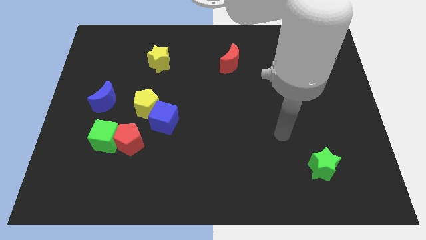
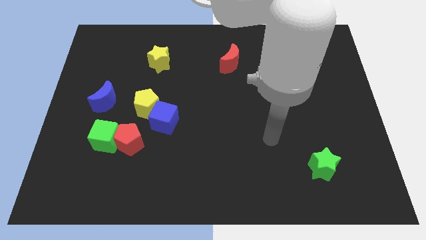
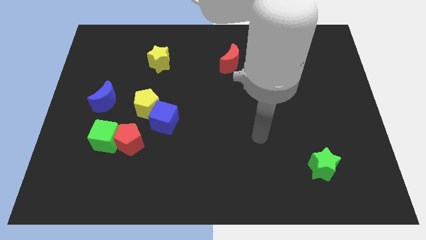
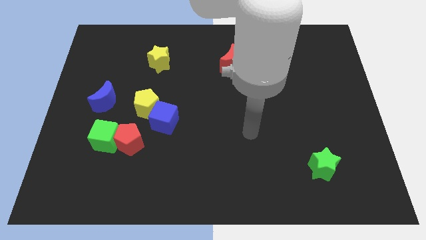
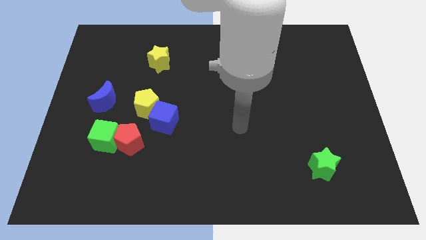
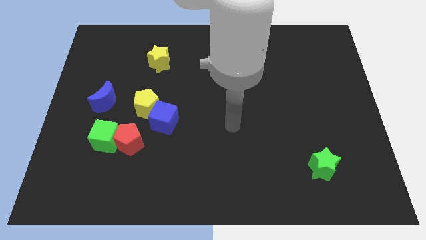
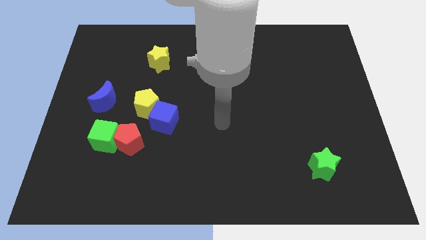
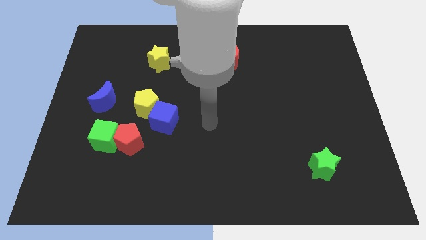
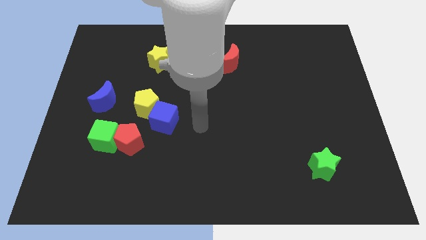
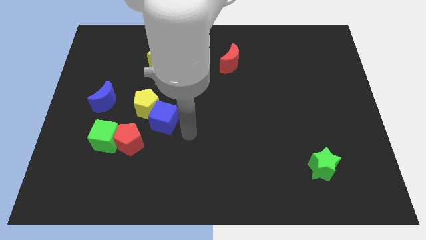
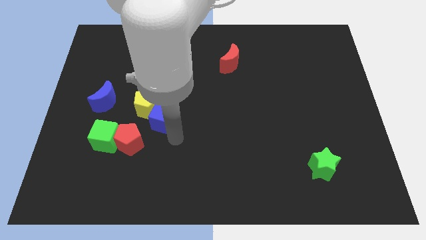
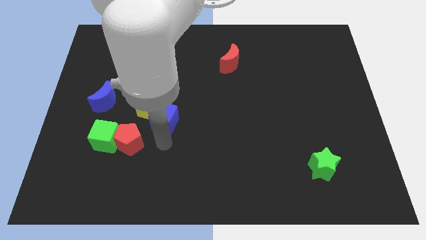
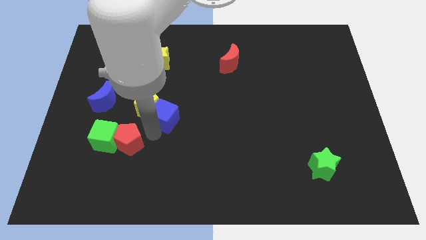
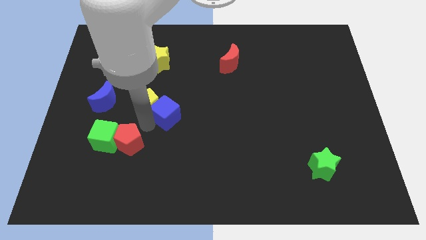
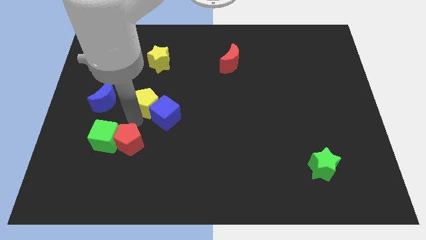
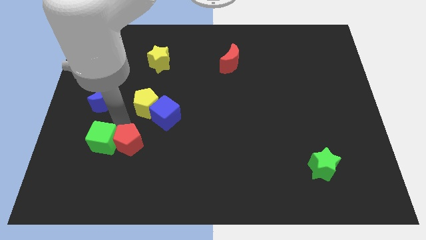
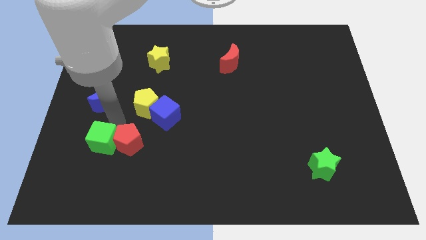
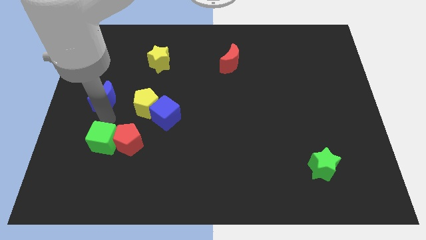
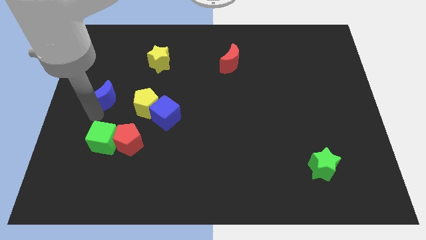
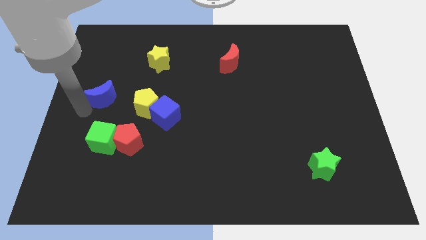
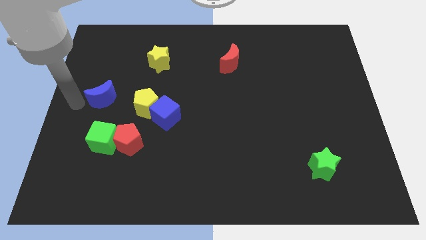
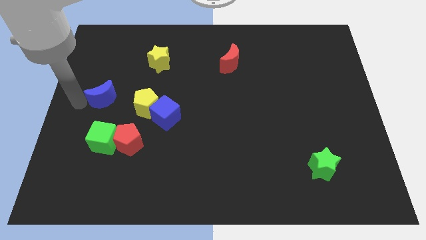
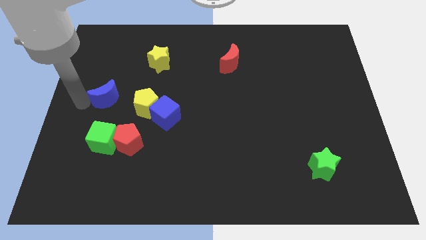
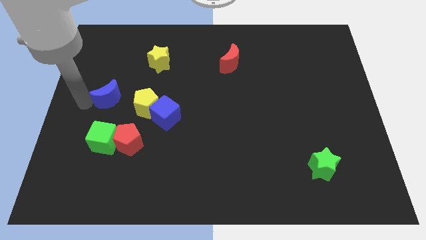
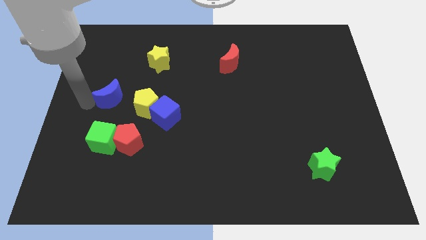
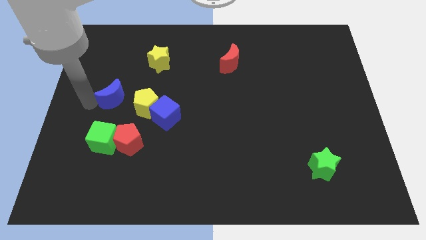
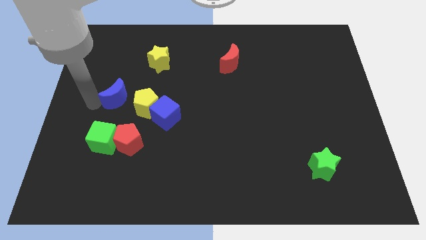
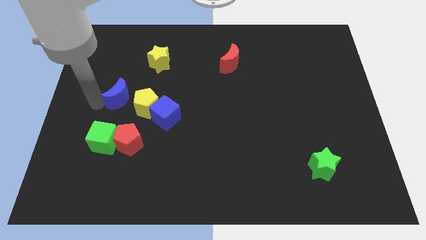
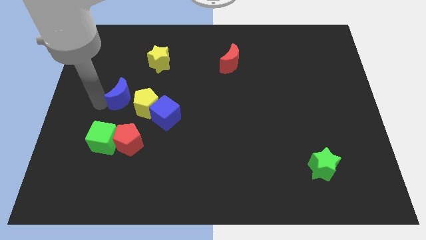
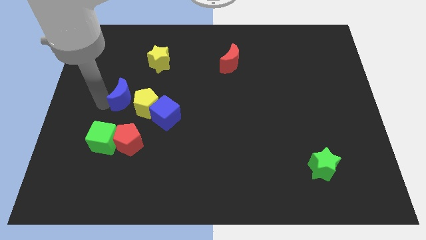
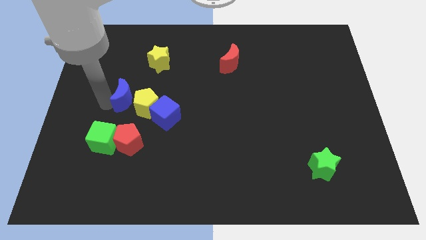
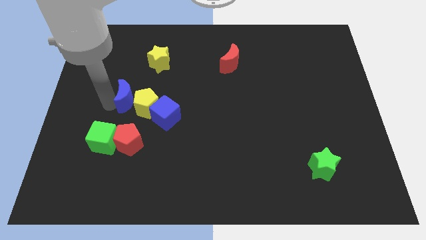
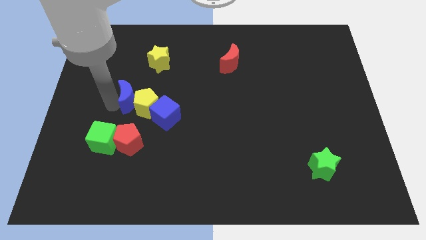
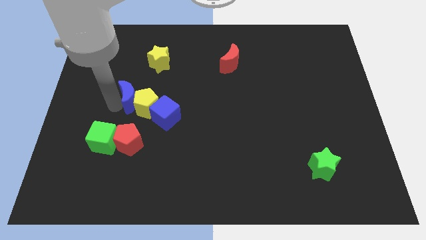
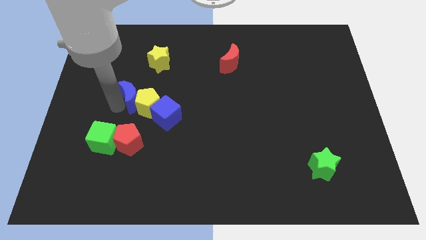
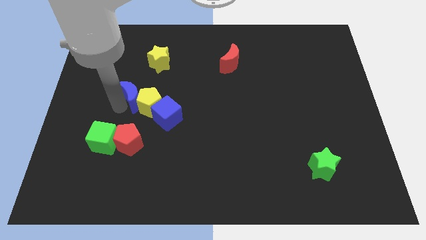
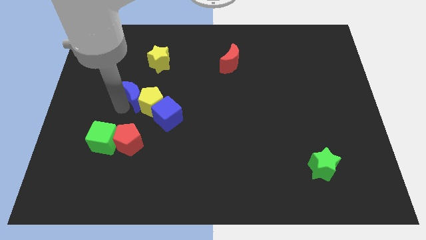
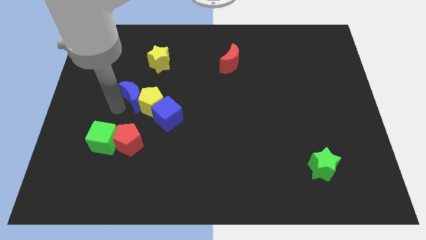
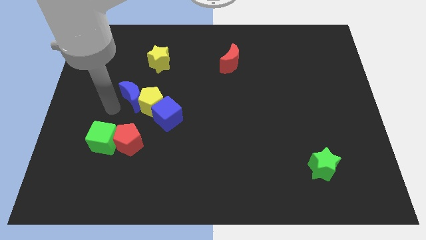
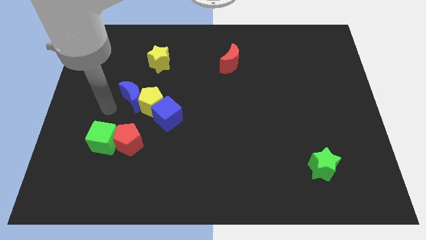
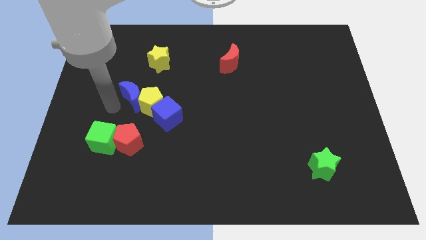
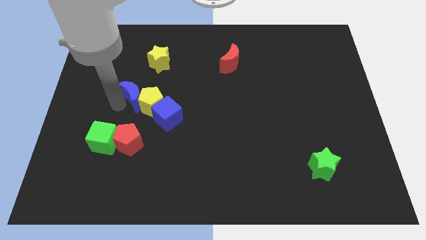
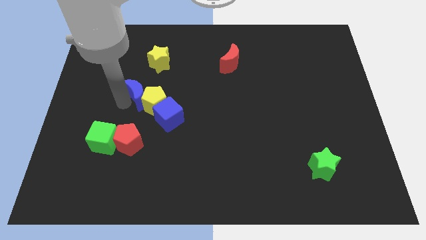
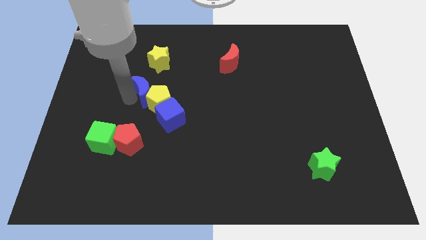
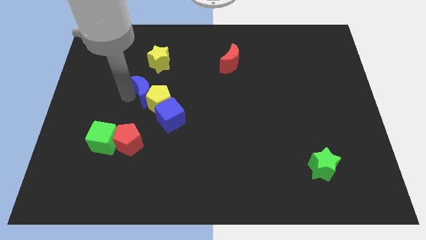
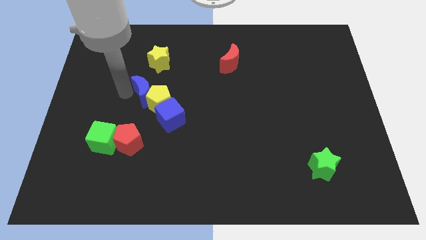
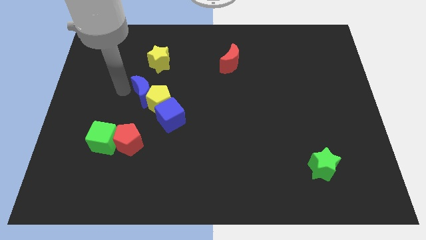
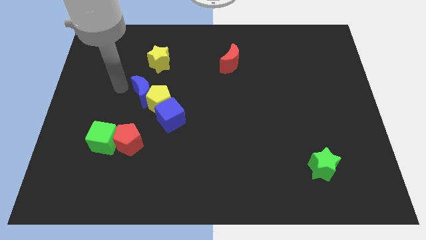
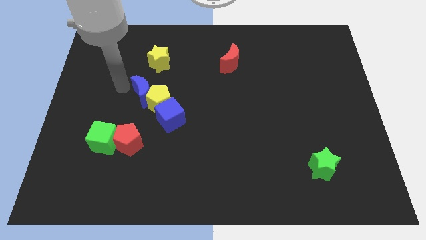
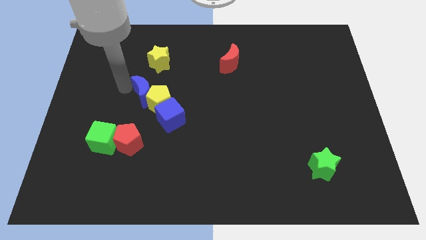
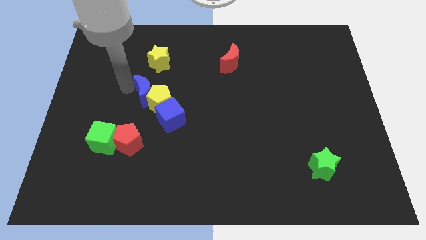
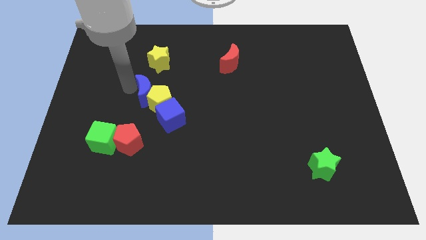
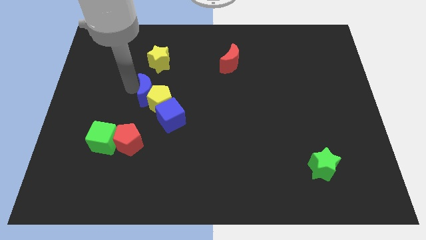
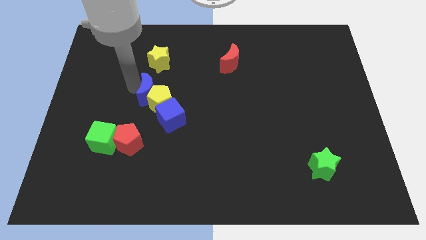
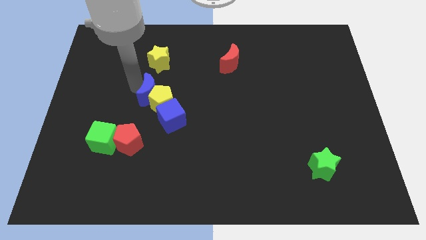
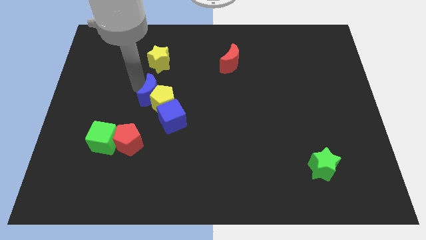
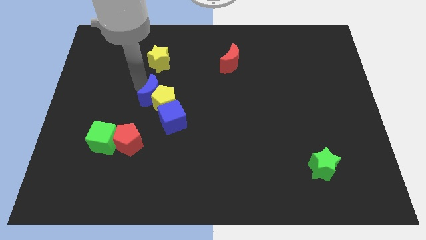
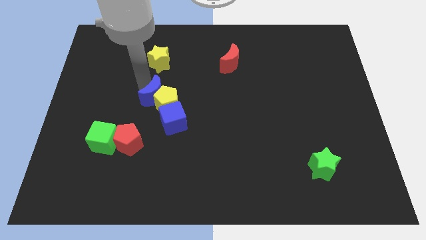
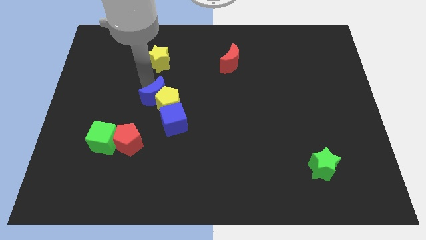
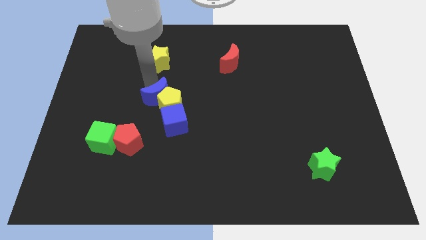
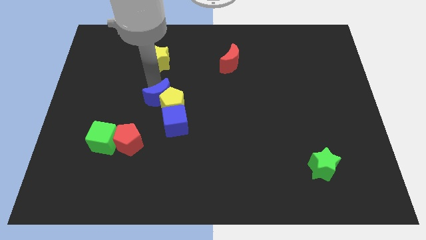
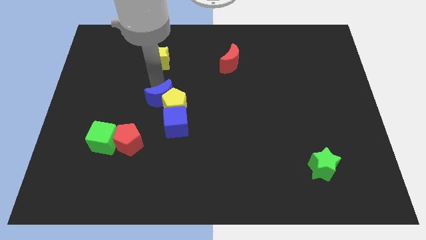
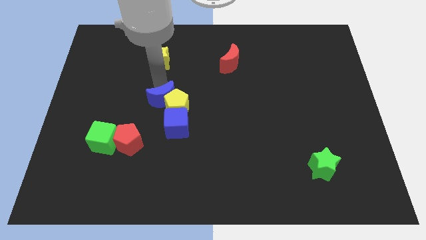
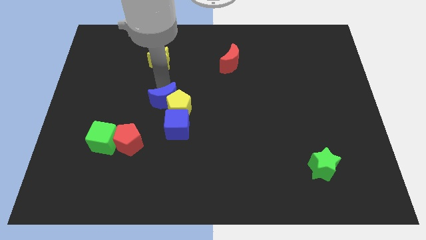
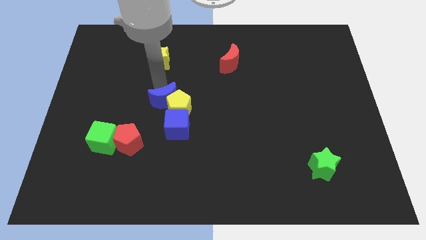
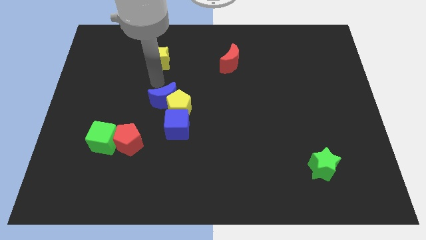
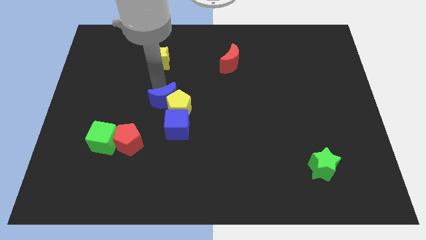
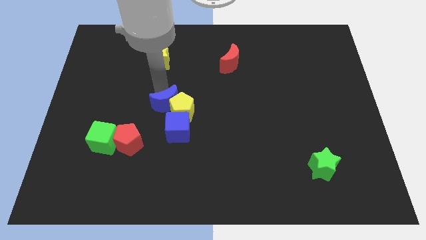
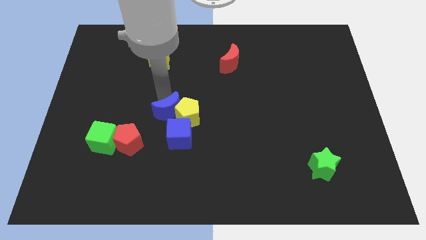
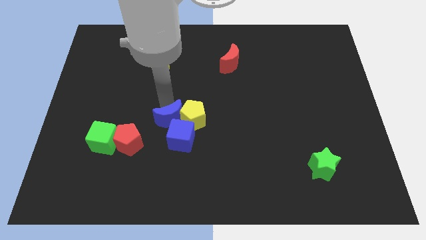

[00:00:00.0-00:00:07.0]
move the blue moon next to the blue cube

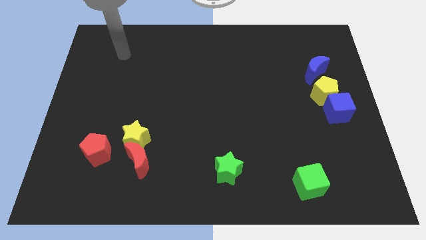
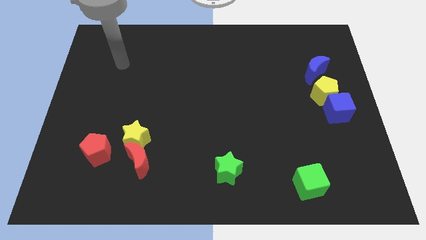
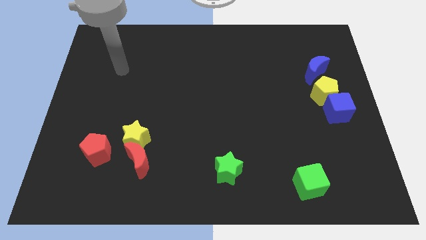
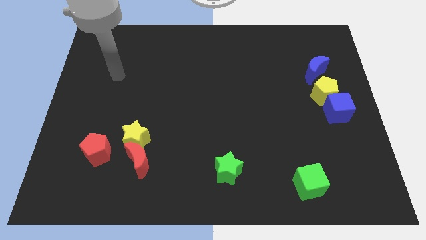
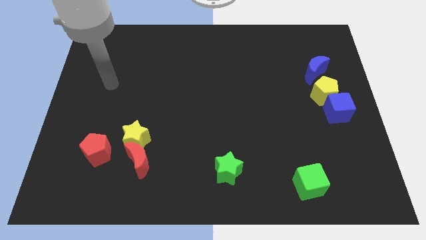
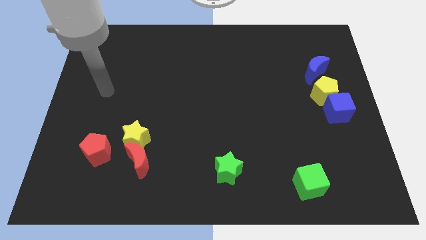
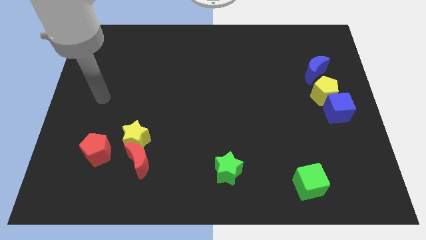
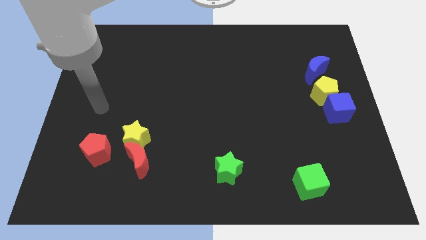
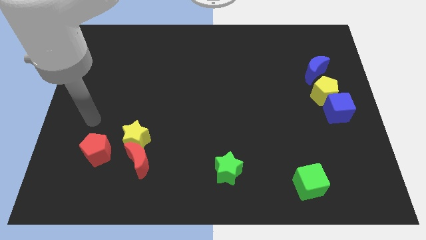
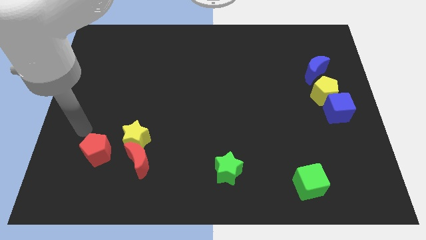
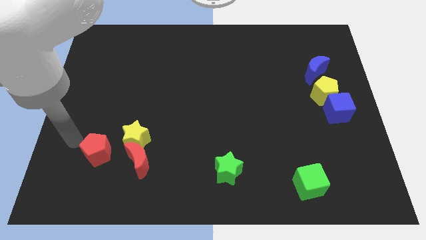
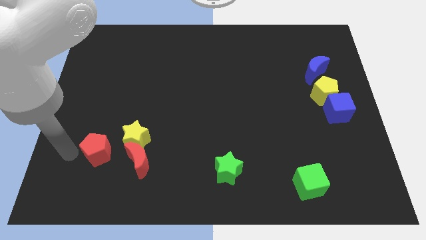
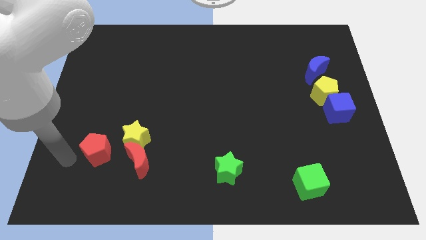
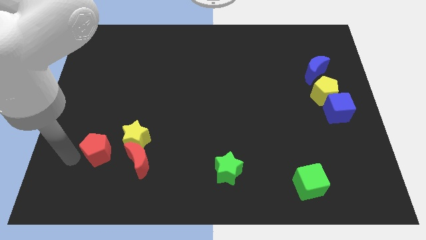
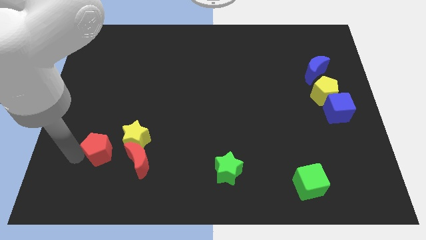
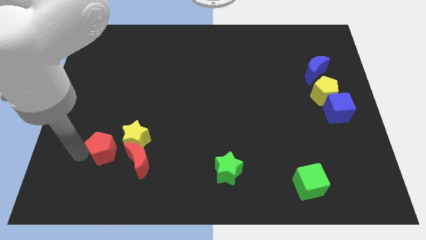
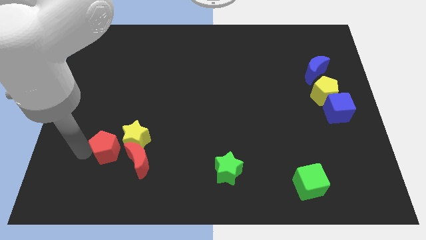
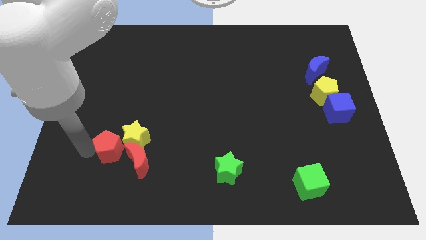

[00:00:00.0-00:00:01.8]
put the red pentagon close to the yellow star
